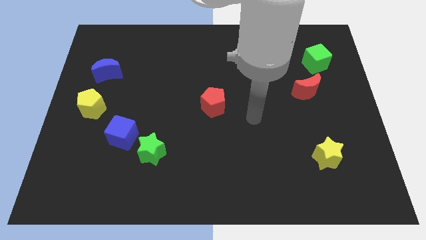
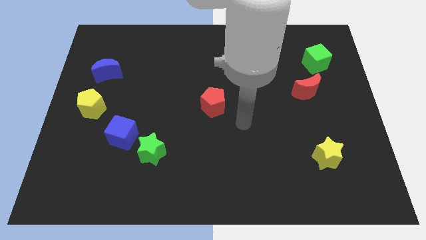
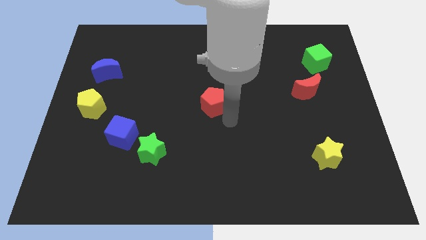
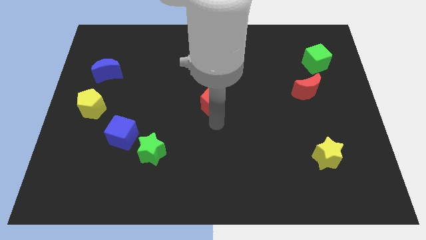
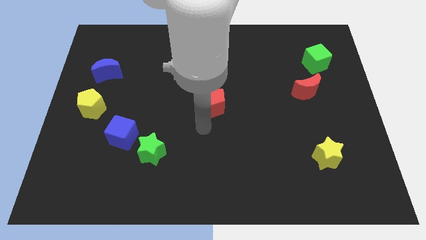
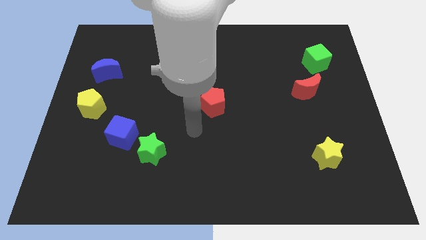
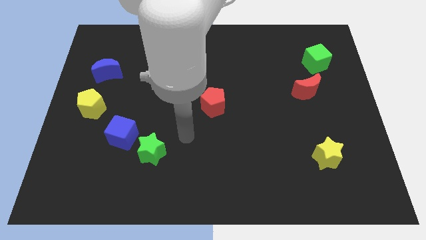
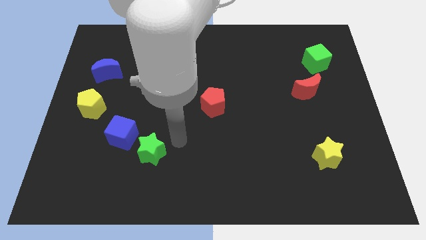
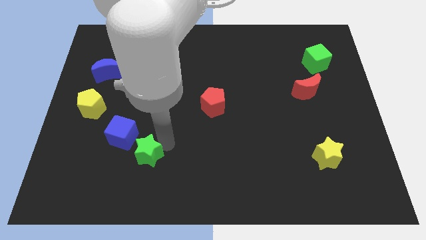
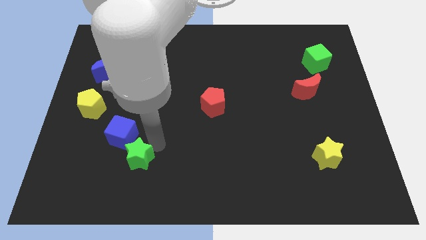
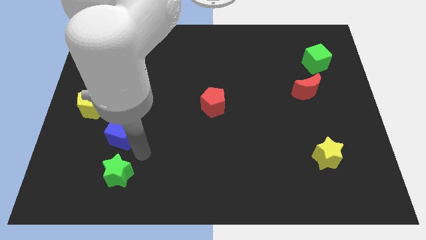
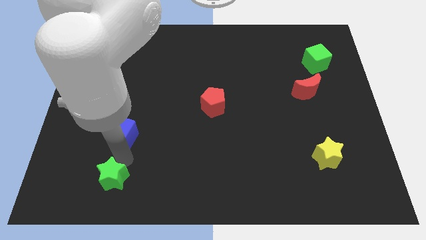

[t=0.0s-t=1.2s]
separate the blue cube from the green star

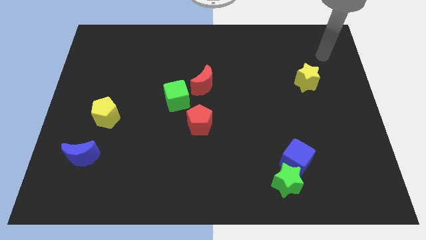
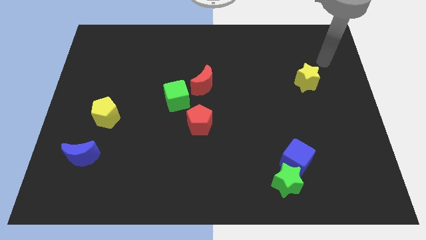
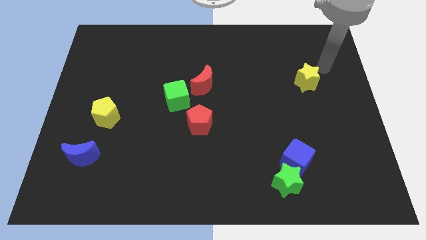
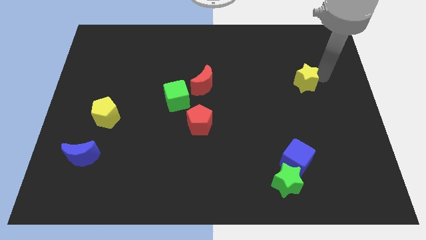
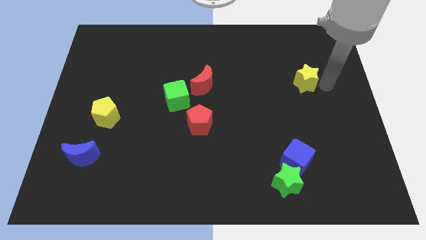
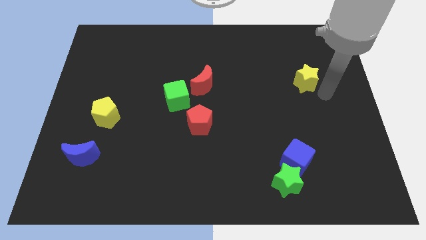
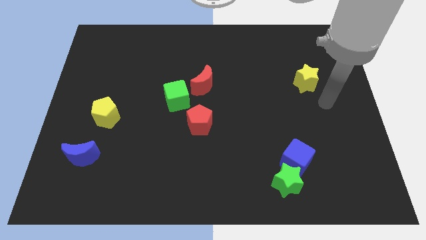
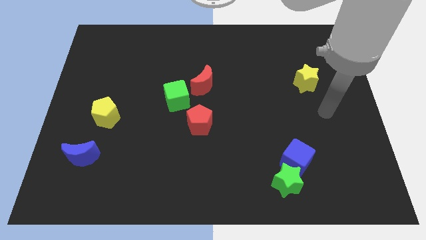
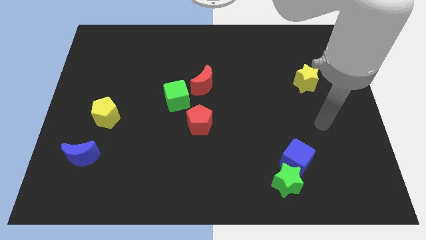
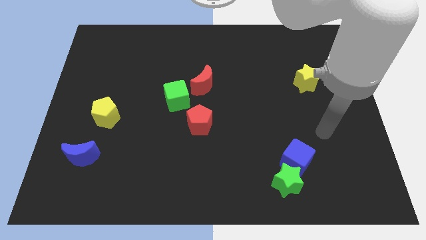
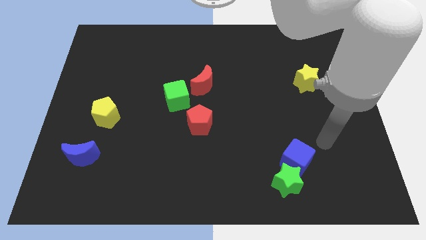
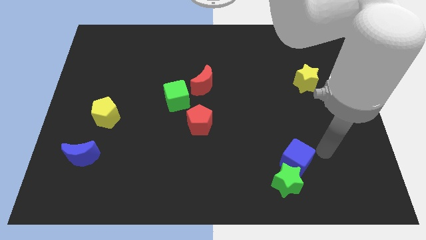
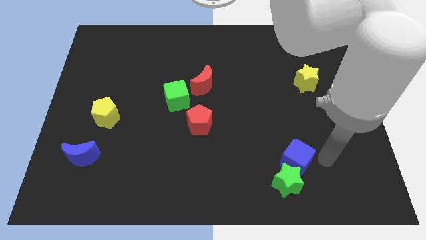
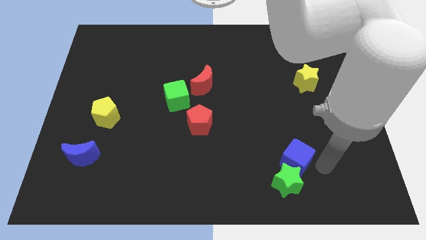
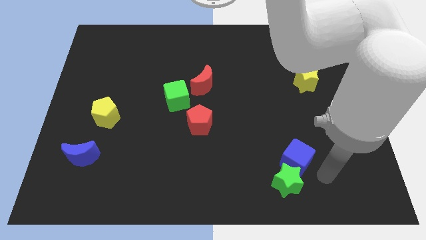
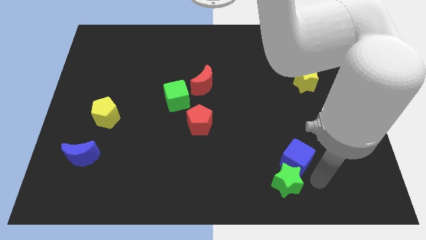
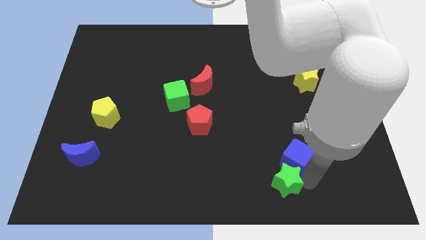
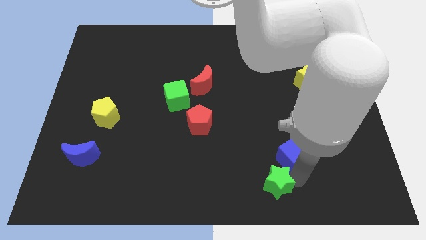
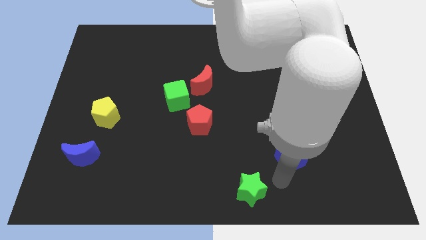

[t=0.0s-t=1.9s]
pull the blue cube apart from the green star

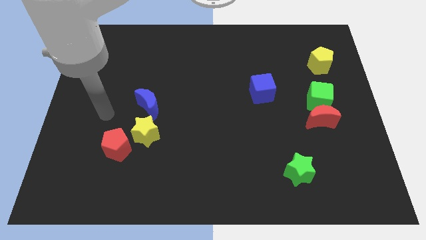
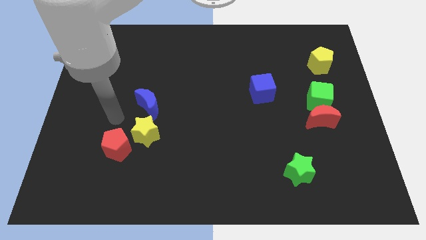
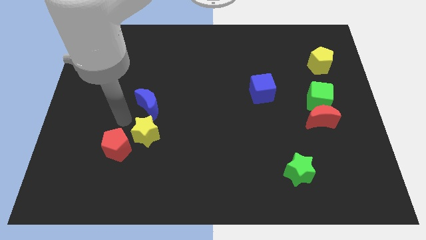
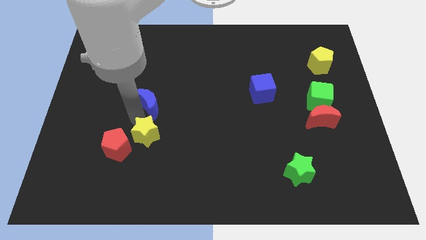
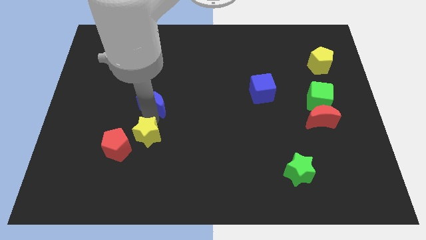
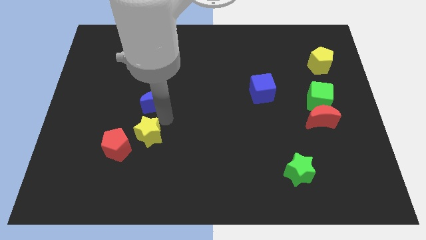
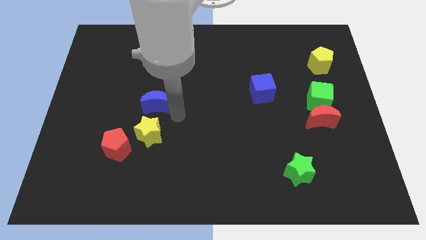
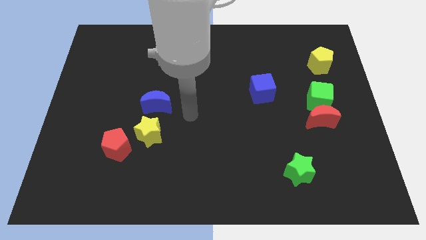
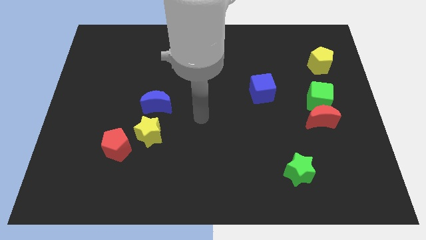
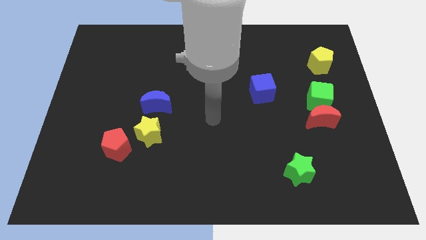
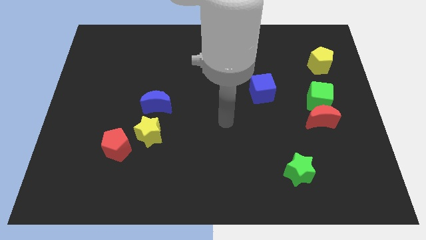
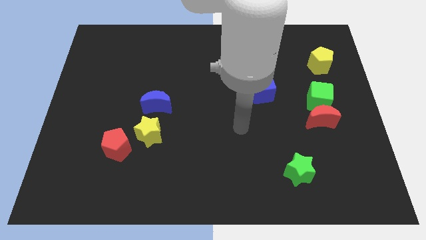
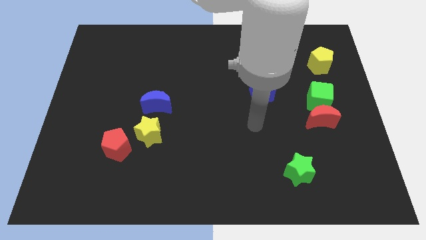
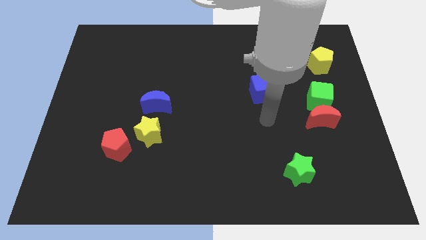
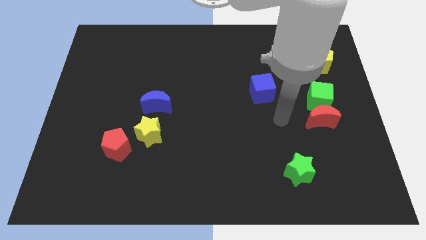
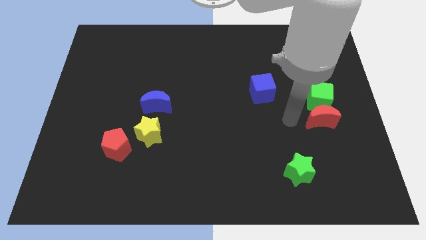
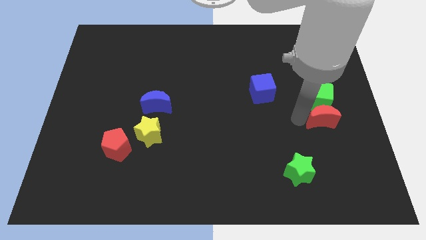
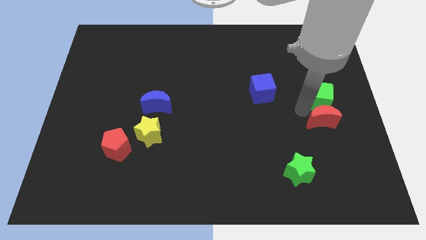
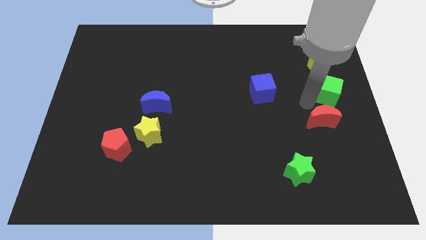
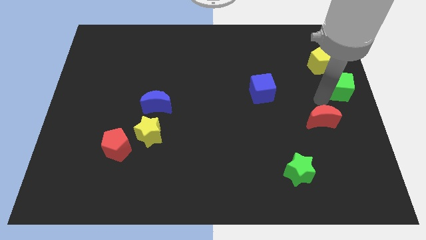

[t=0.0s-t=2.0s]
separate the red moon from the green cube

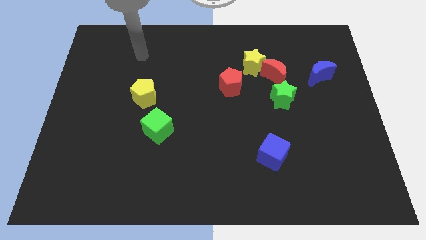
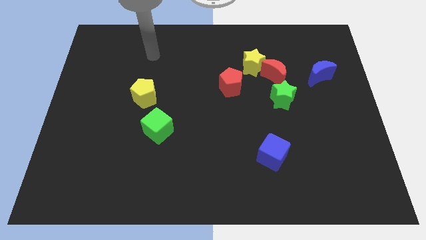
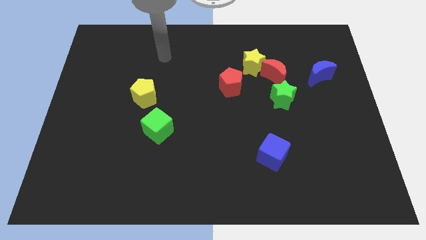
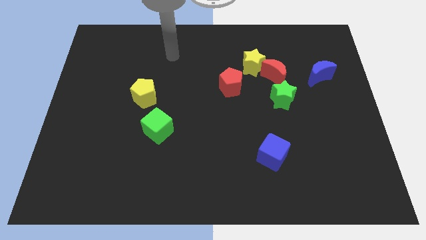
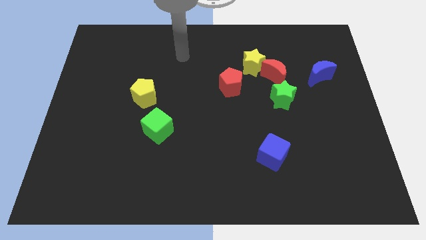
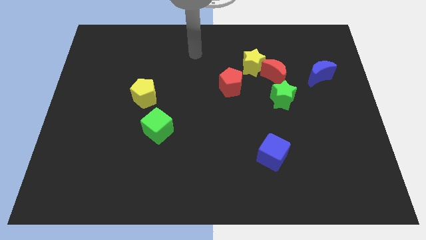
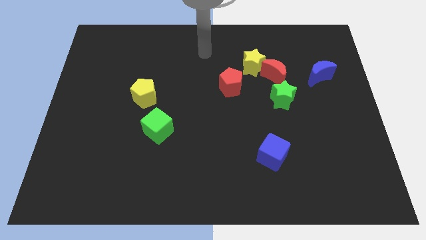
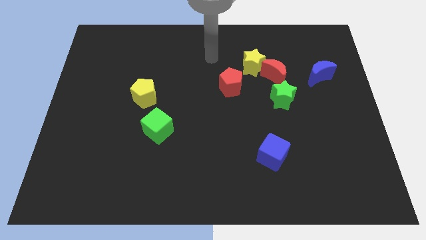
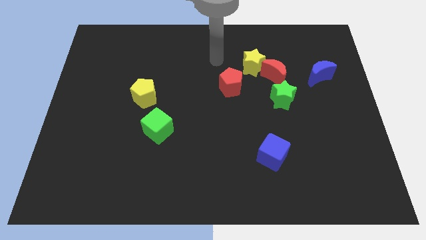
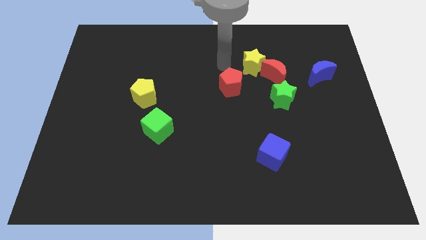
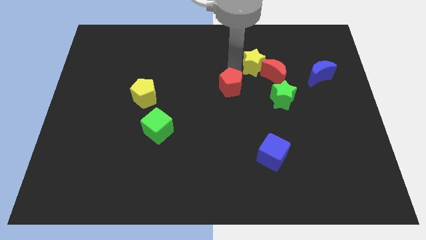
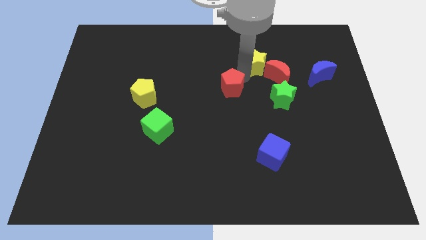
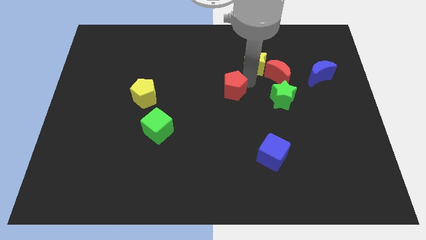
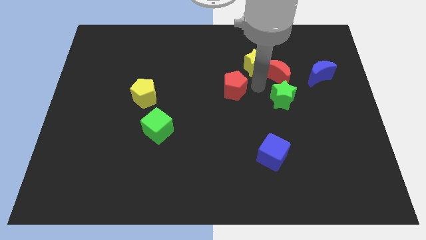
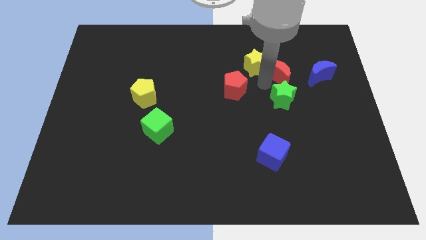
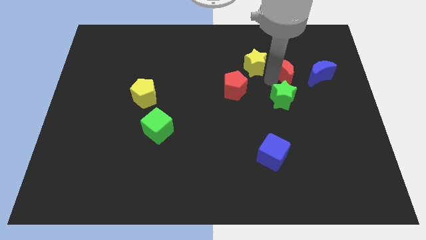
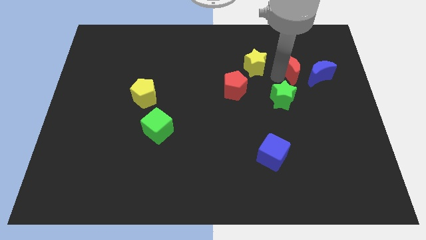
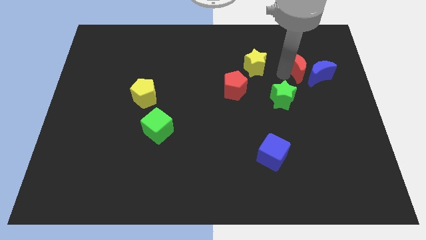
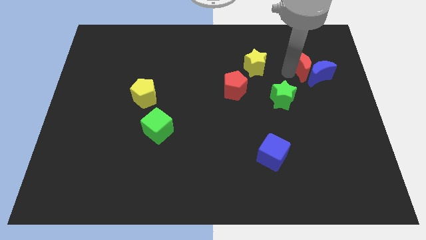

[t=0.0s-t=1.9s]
separate the red moon from the yellow star and green star

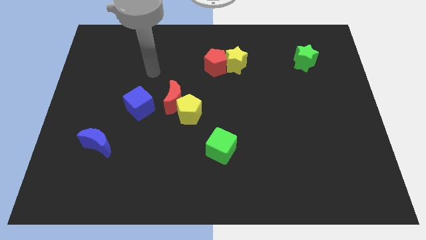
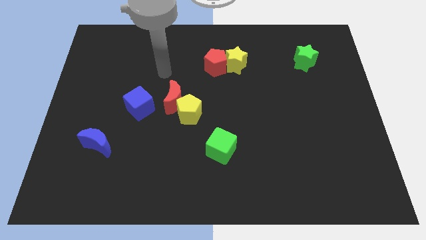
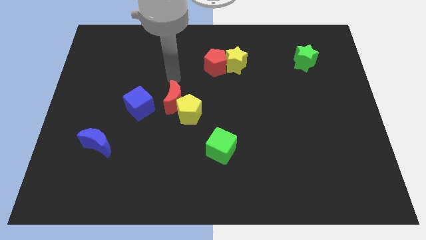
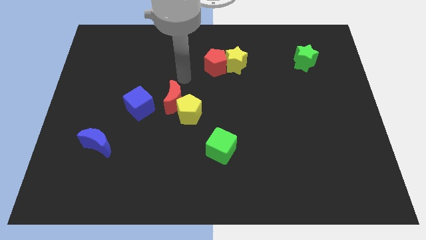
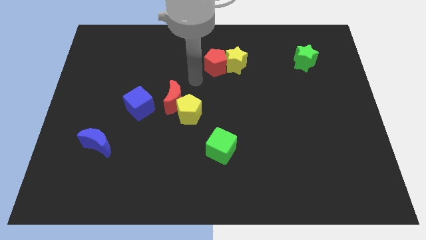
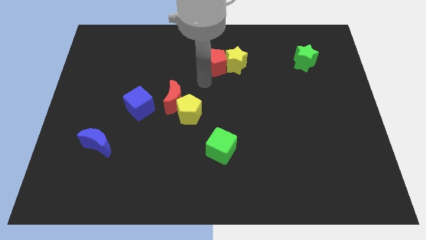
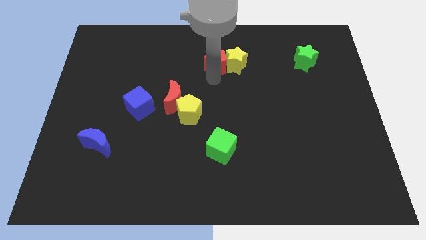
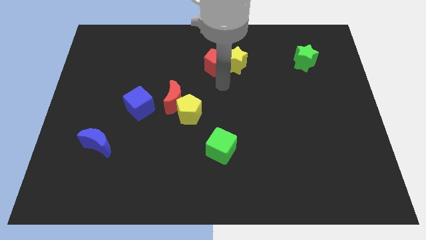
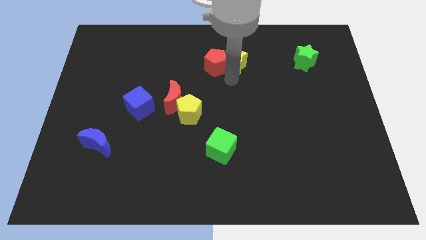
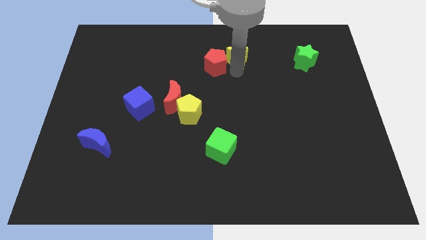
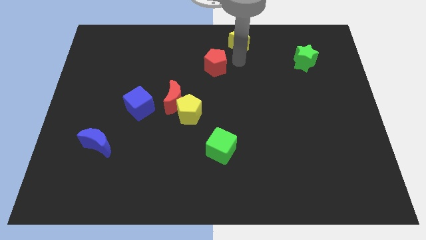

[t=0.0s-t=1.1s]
separate the red pentagon from the yellow star

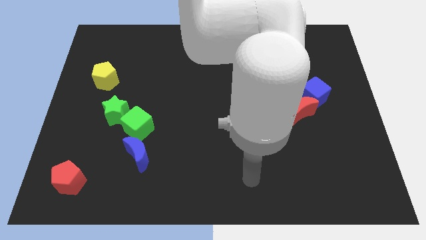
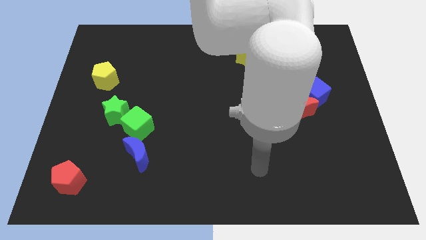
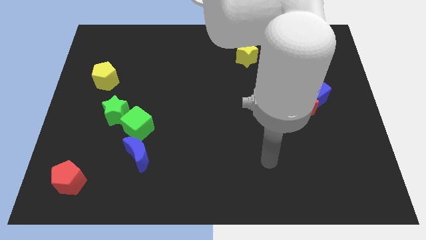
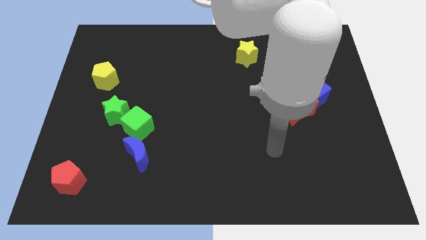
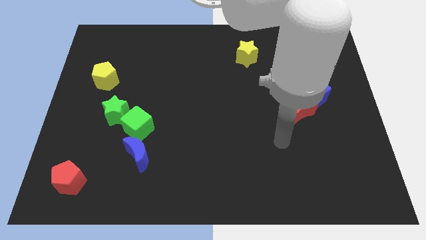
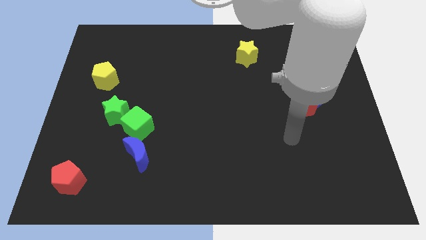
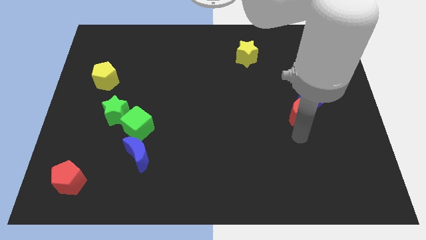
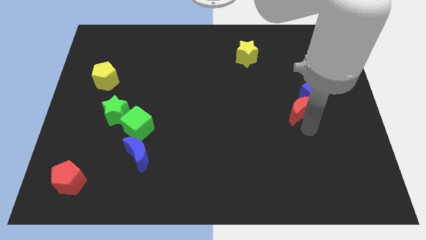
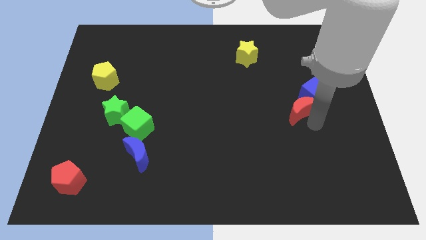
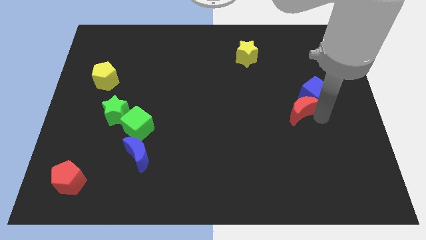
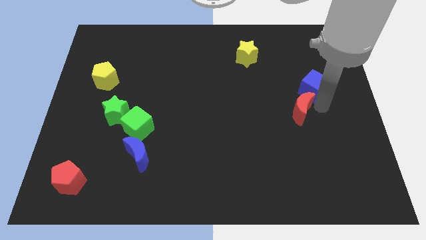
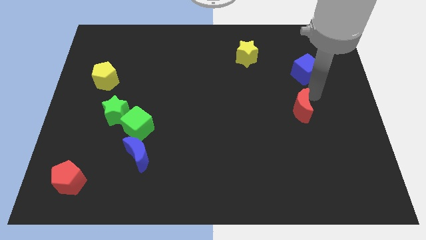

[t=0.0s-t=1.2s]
separate the red moon from the blue cube
